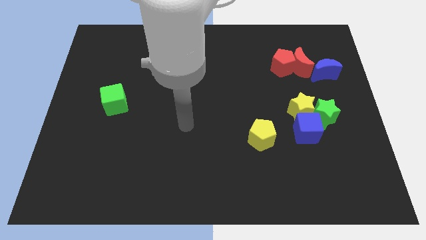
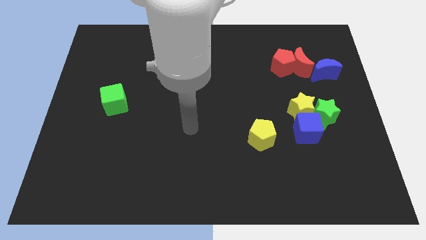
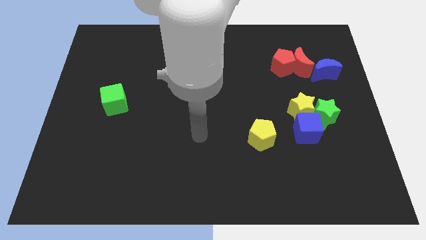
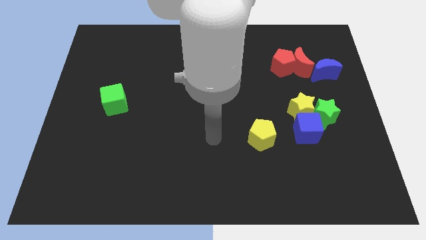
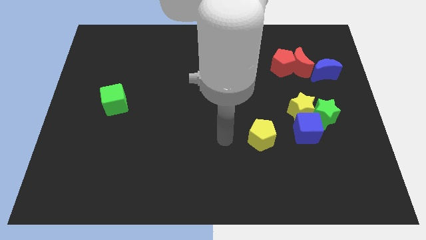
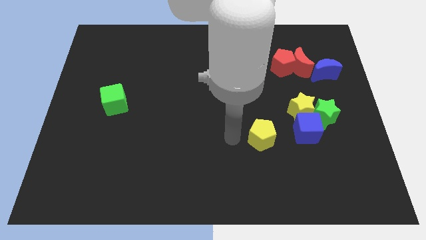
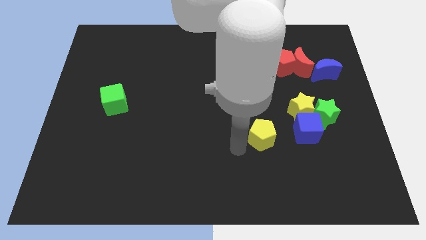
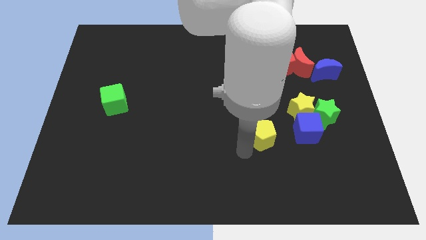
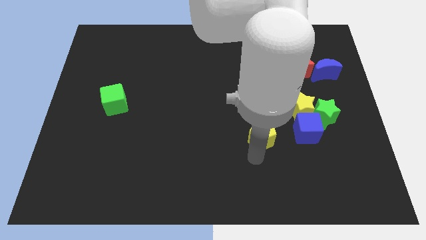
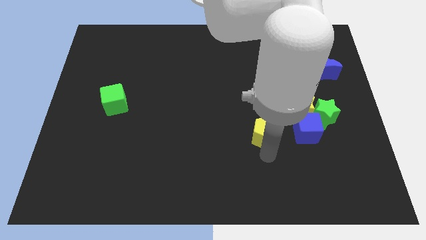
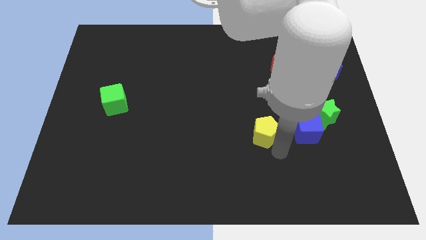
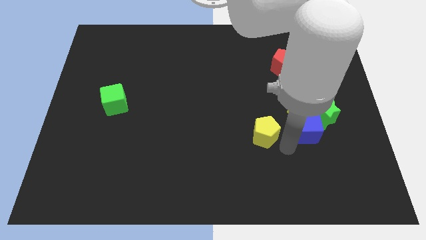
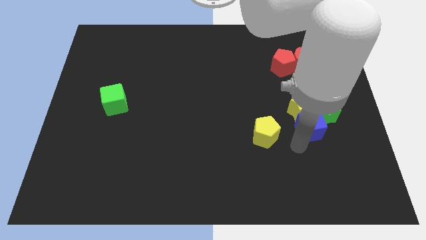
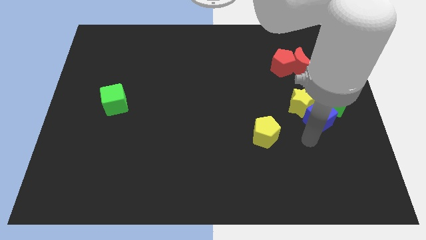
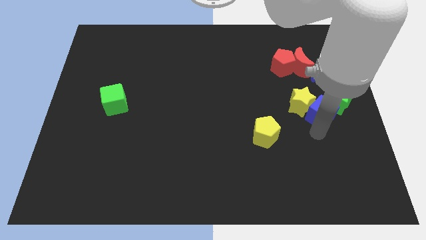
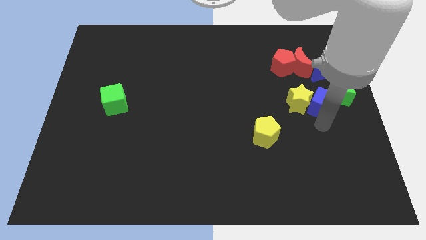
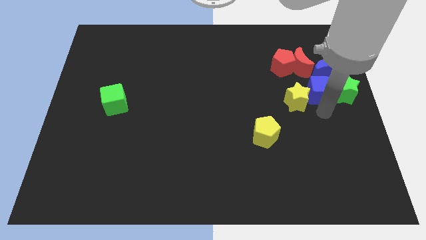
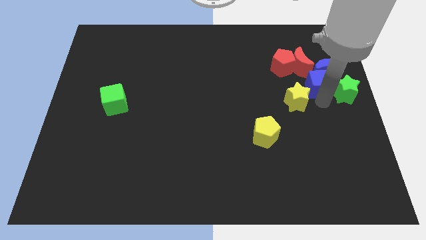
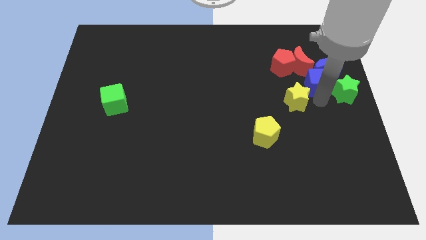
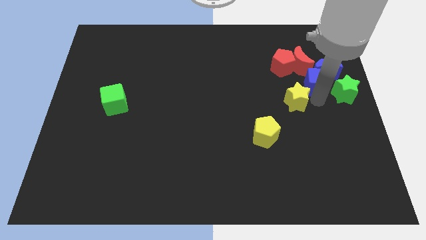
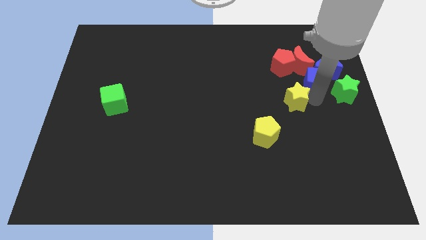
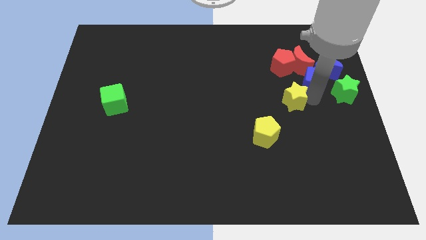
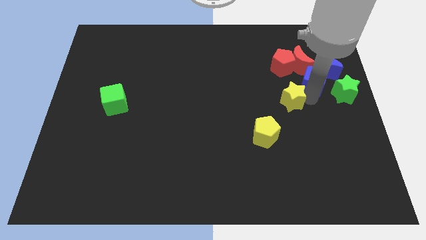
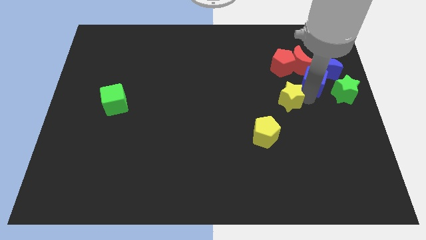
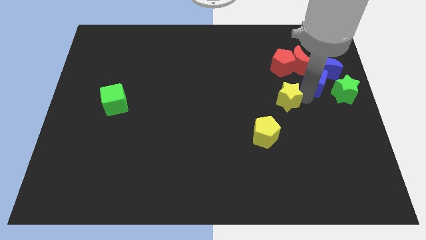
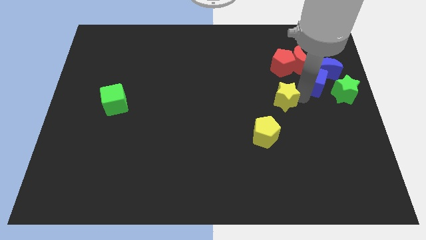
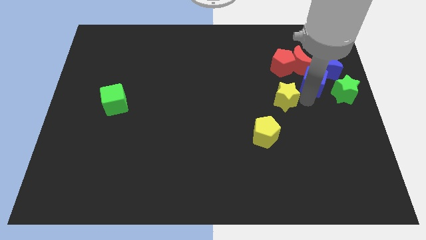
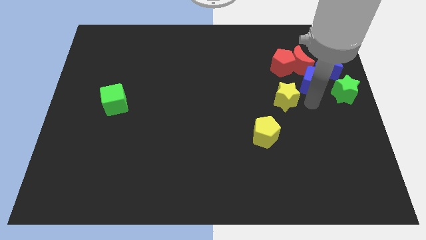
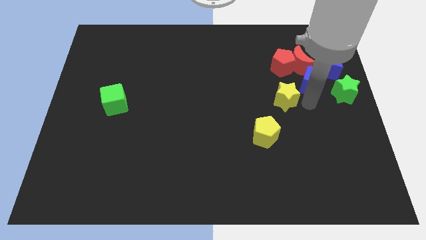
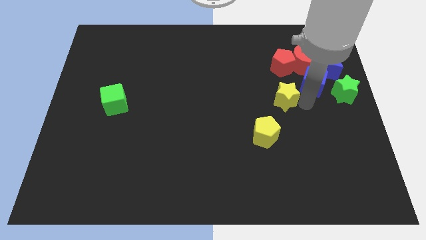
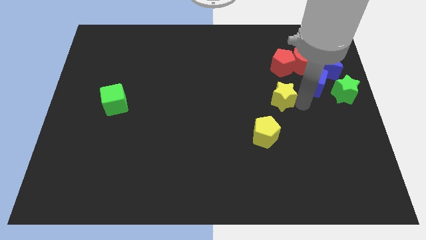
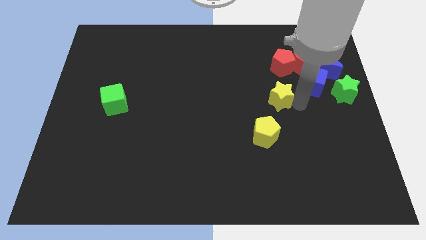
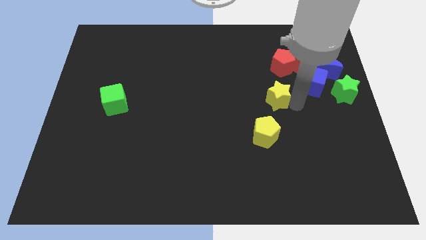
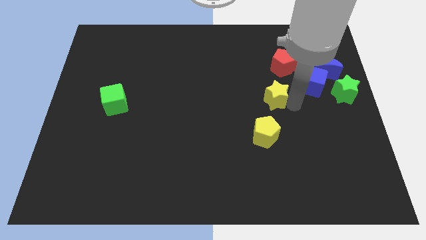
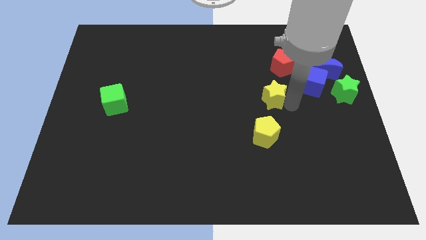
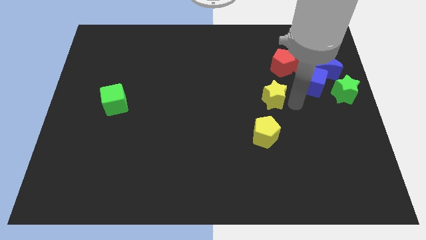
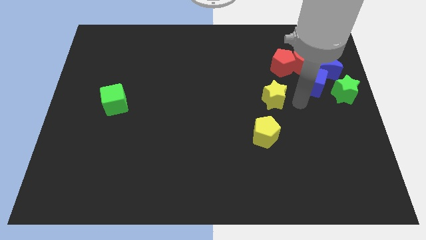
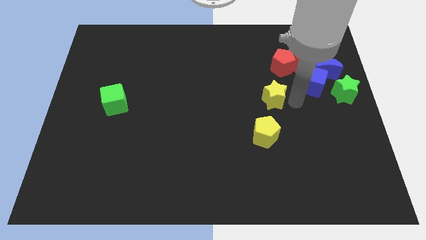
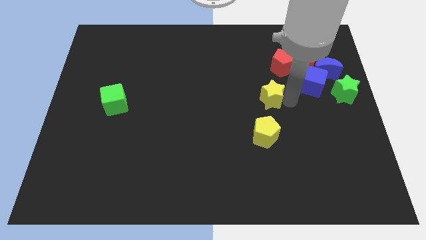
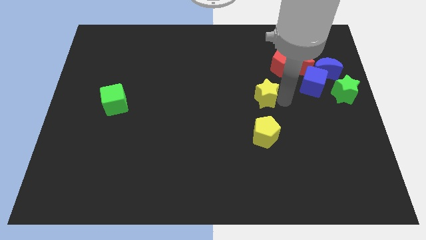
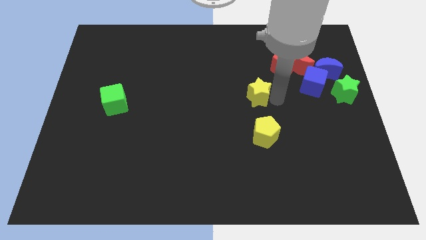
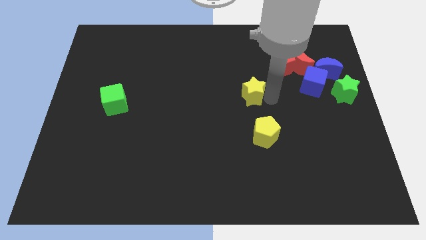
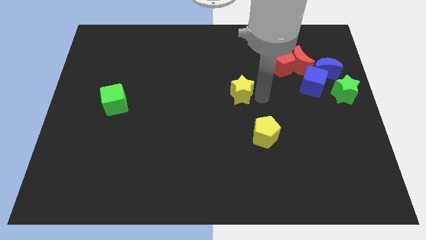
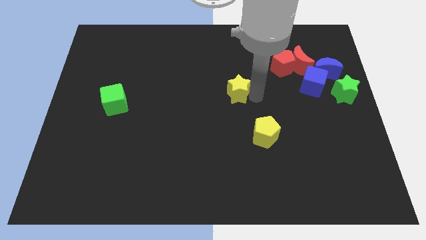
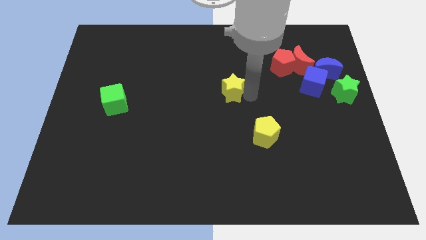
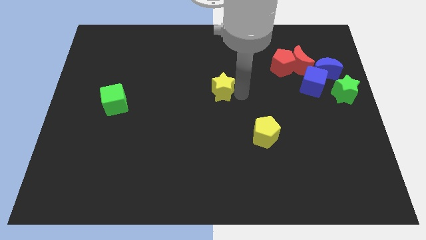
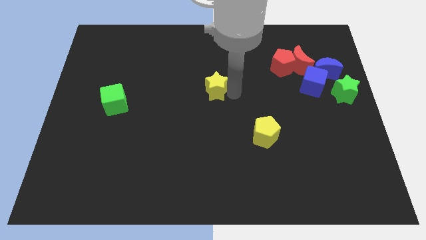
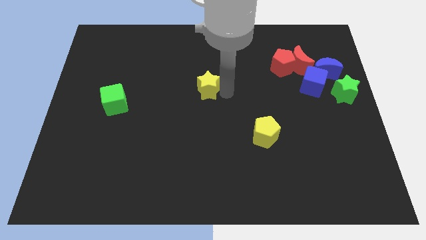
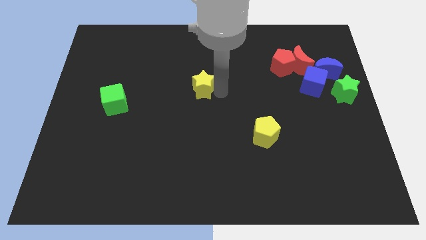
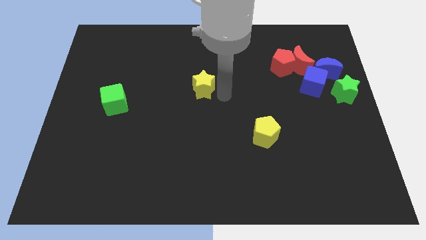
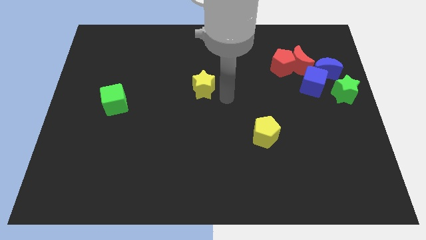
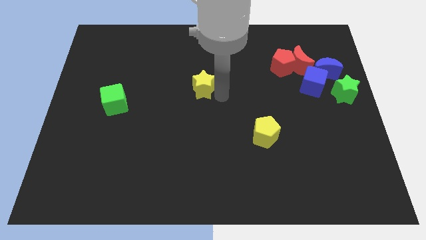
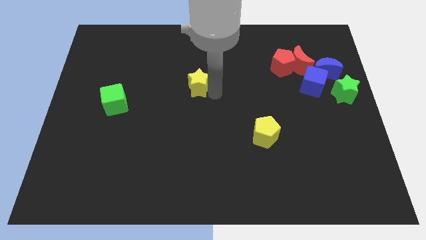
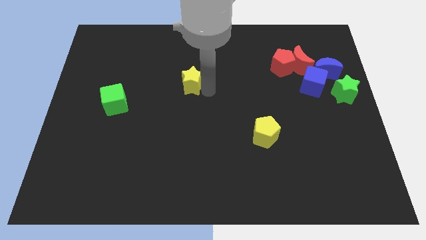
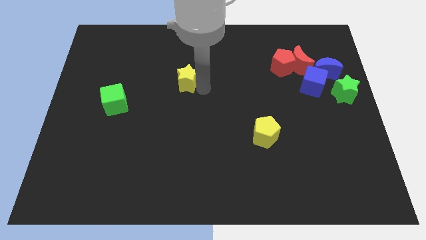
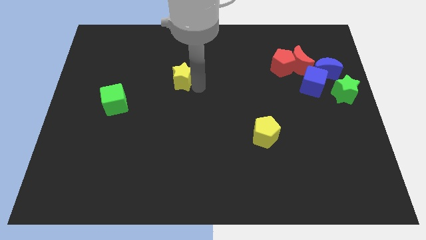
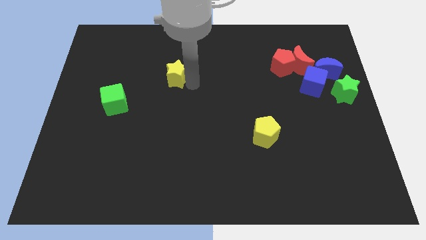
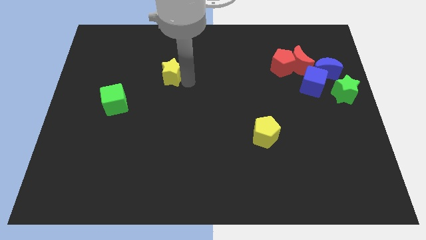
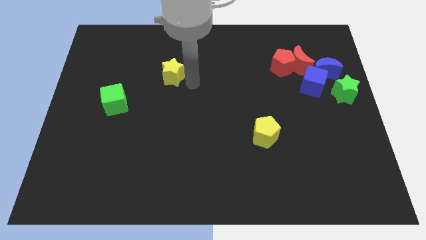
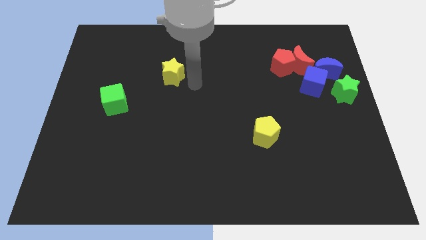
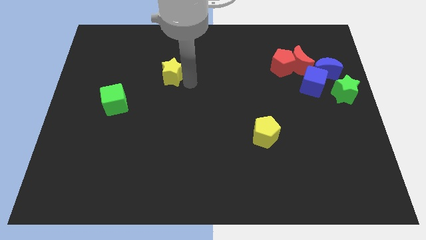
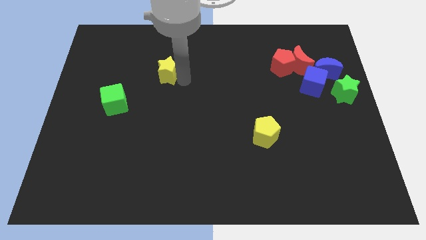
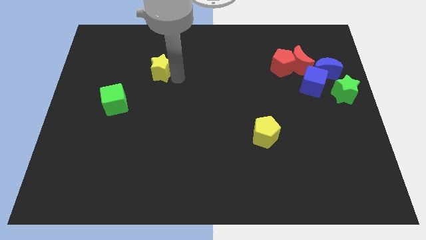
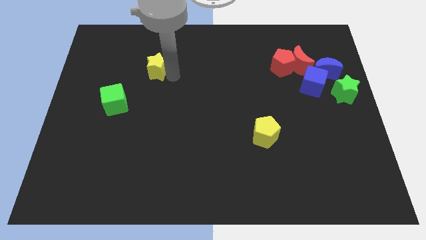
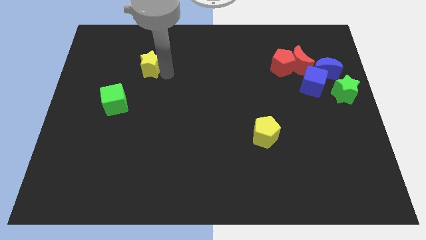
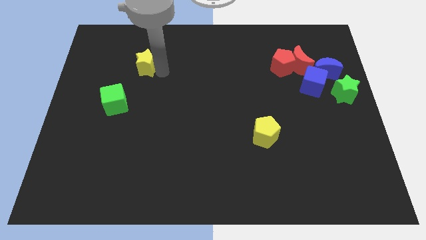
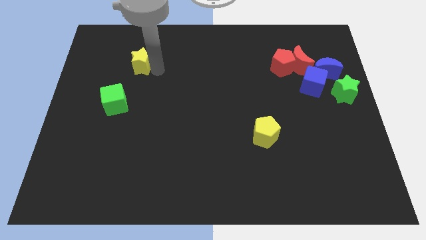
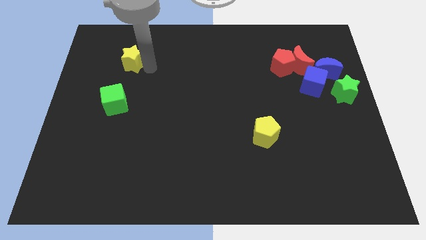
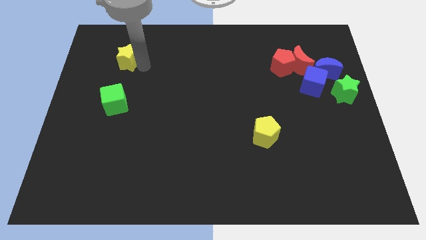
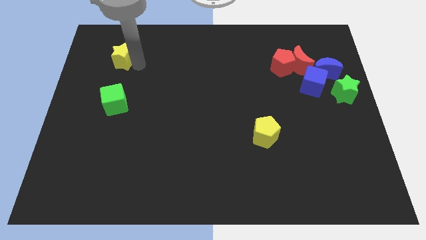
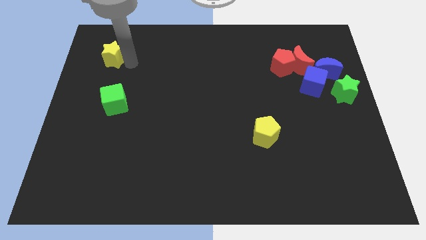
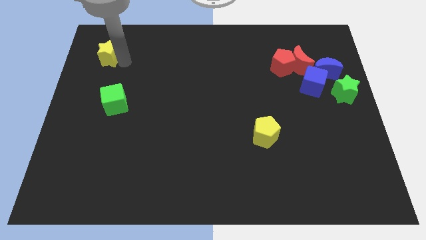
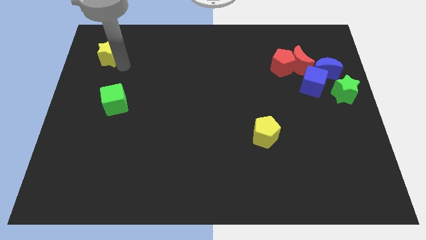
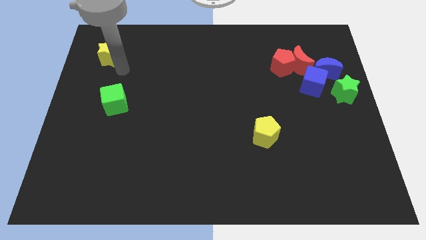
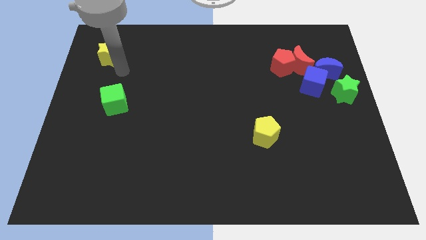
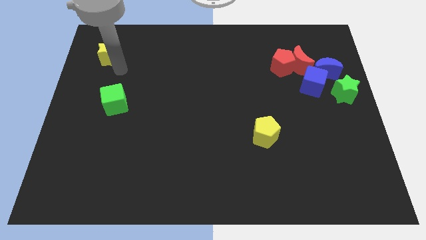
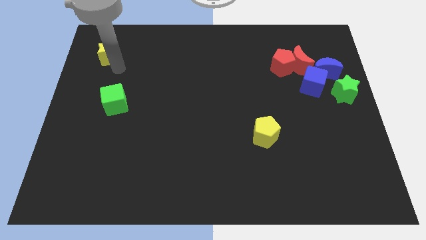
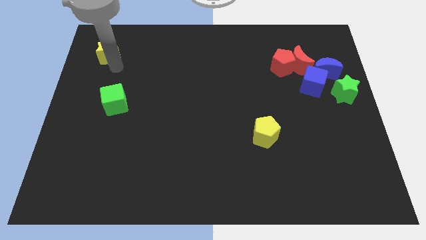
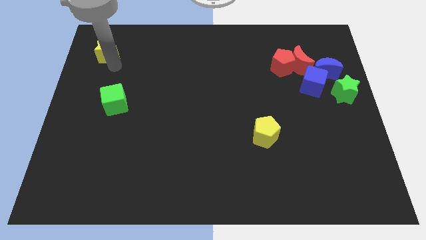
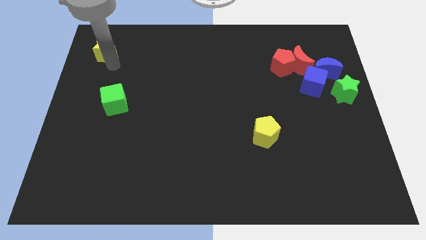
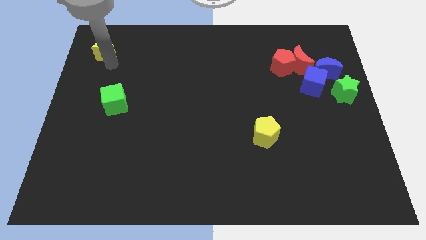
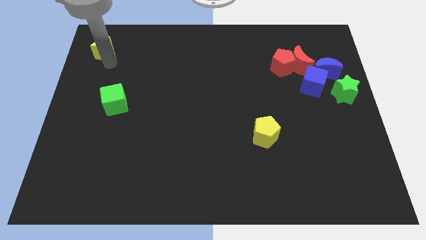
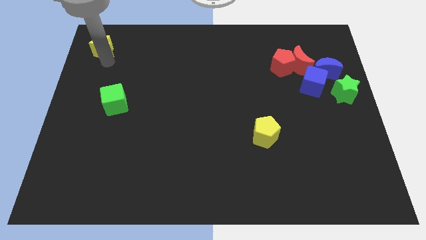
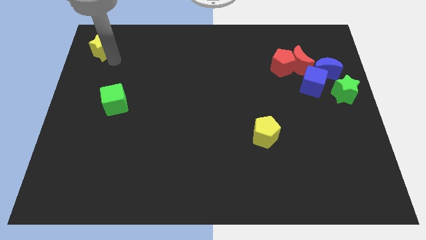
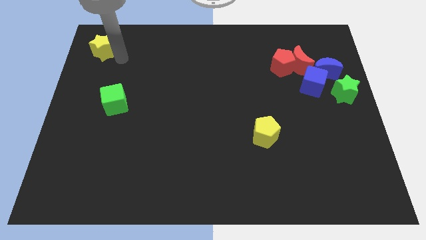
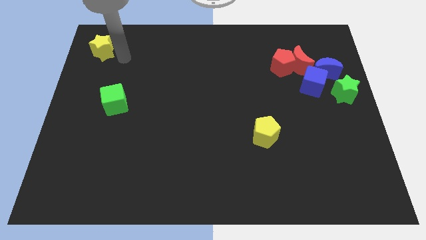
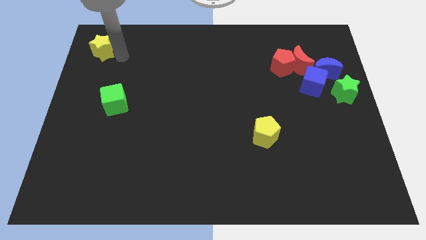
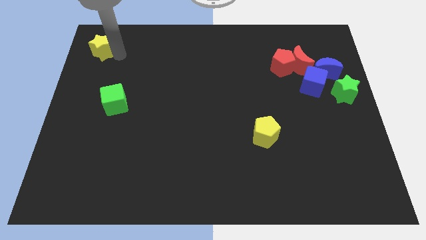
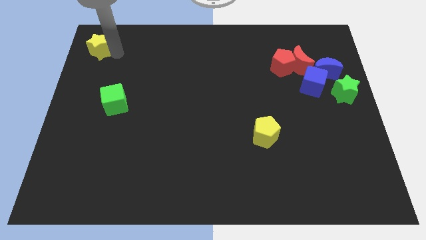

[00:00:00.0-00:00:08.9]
push the yellow star to the upper left corner
